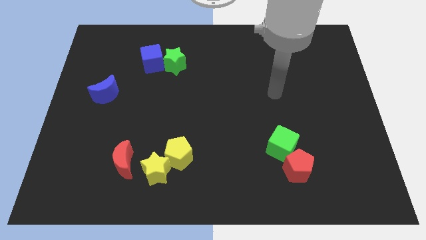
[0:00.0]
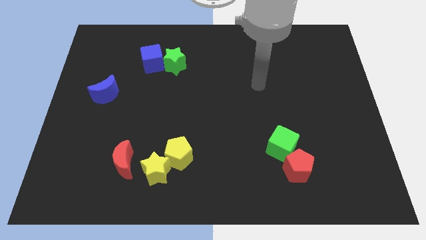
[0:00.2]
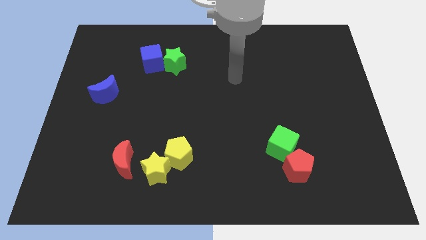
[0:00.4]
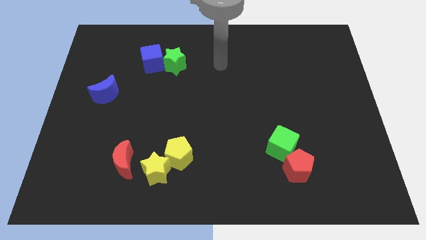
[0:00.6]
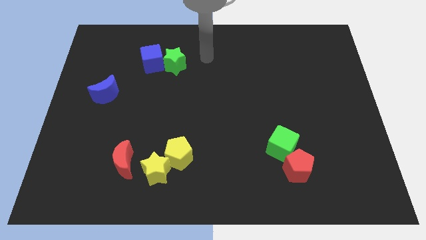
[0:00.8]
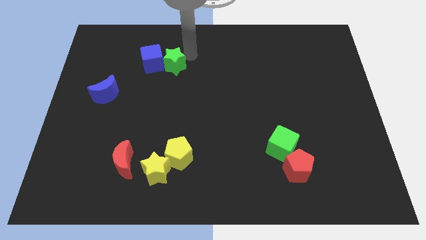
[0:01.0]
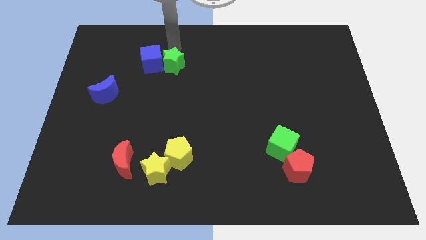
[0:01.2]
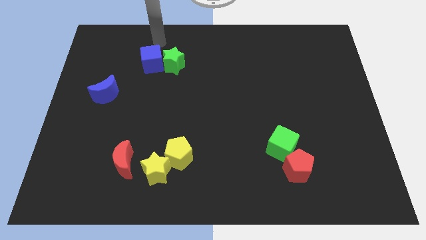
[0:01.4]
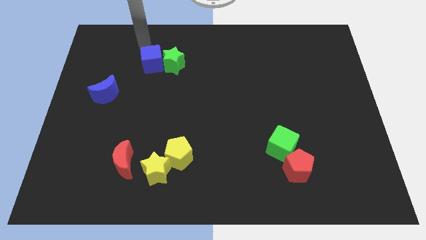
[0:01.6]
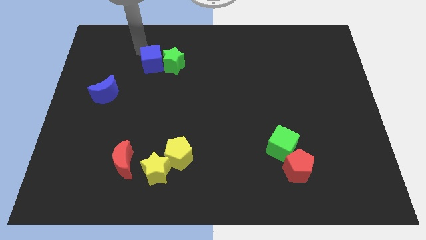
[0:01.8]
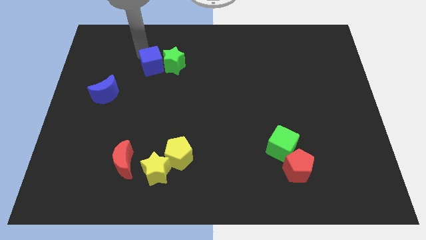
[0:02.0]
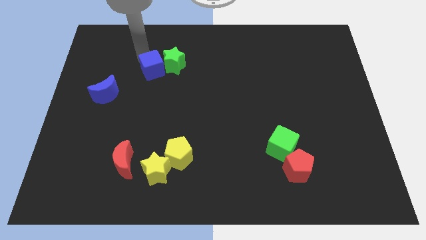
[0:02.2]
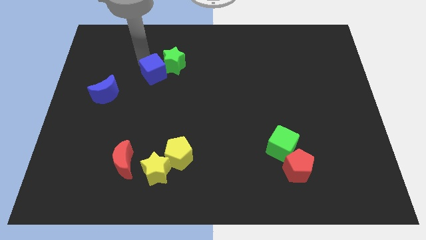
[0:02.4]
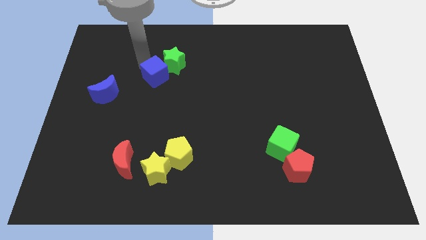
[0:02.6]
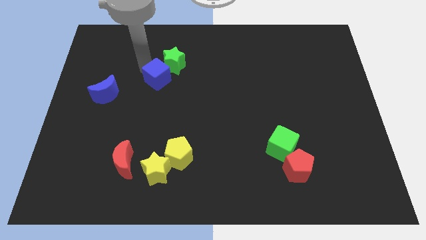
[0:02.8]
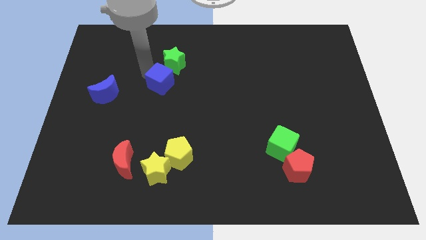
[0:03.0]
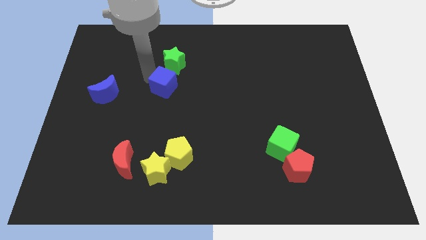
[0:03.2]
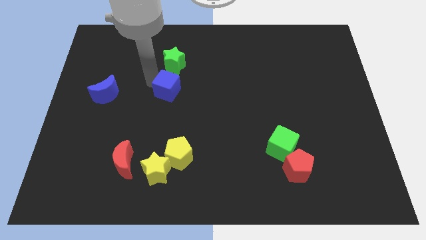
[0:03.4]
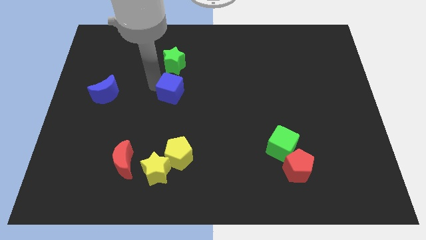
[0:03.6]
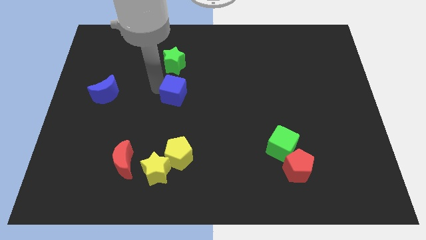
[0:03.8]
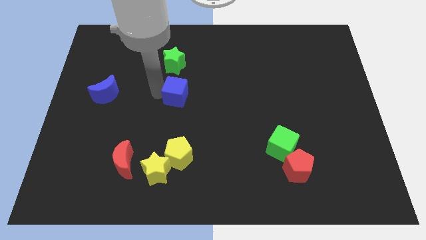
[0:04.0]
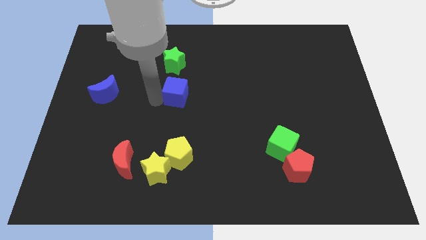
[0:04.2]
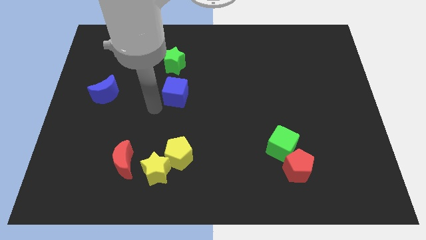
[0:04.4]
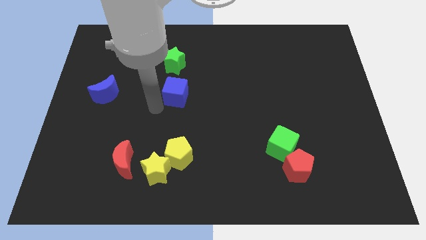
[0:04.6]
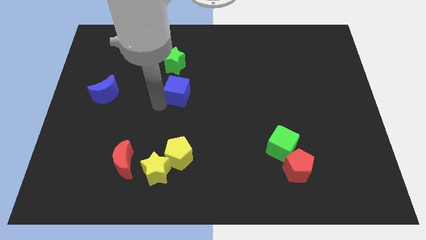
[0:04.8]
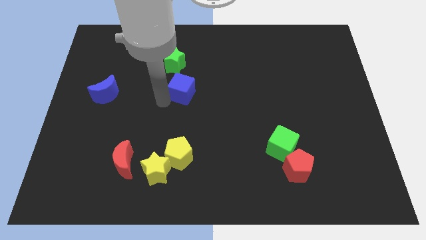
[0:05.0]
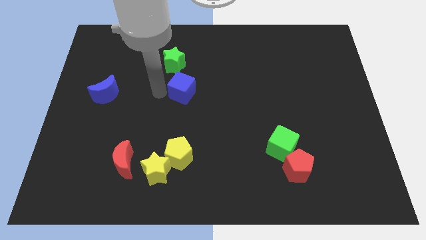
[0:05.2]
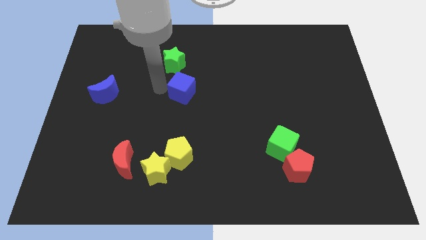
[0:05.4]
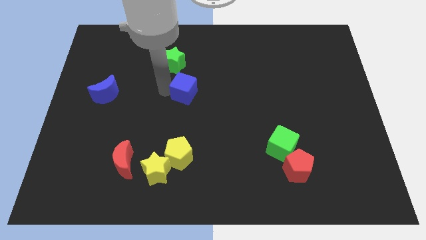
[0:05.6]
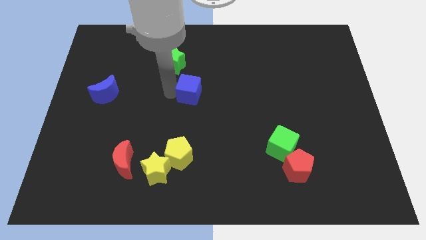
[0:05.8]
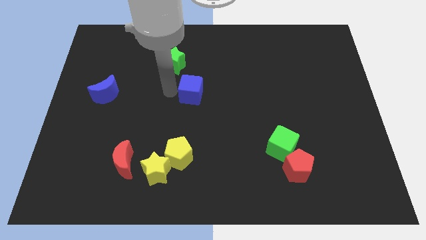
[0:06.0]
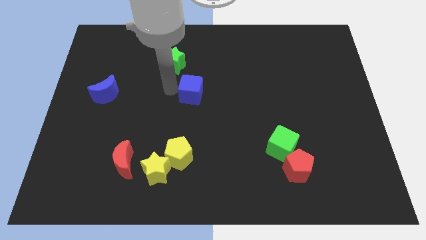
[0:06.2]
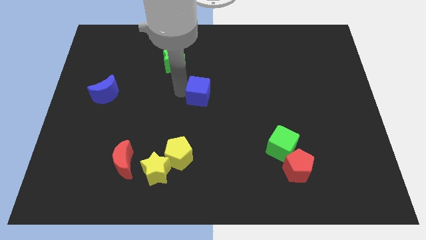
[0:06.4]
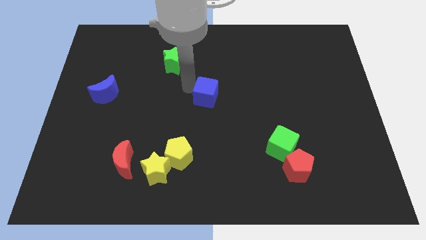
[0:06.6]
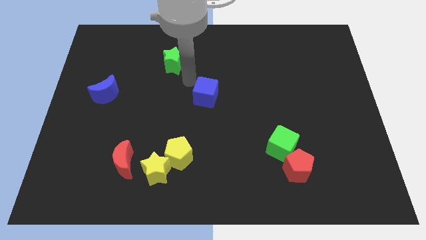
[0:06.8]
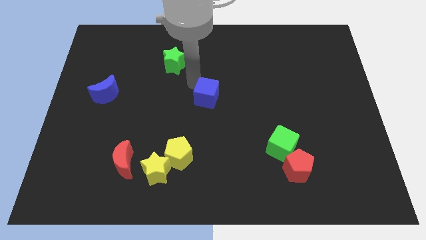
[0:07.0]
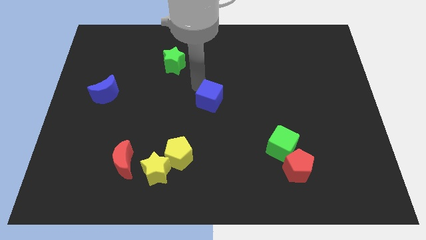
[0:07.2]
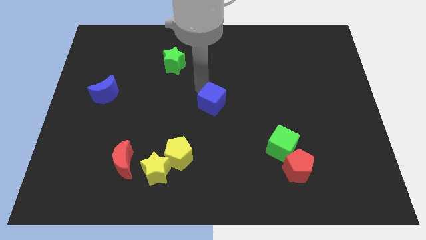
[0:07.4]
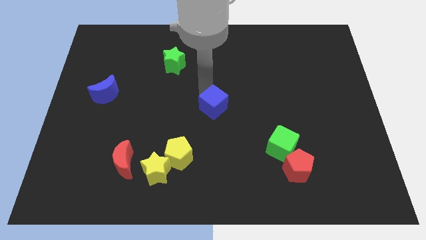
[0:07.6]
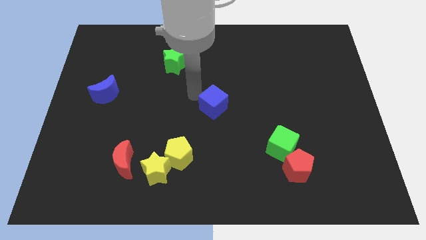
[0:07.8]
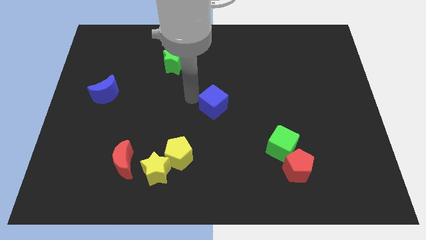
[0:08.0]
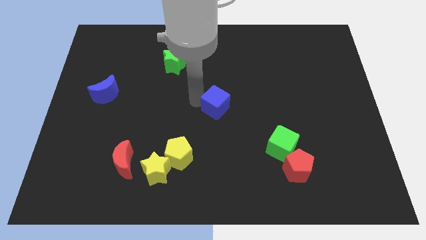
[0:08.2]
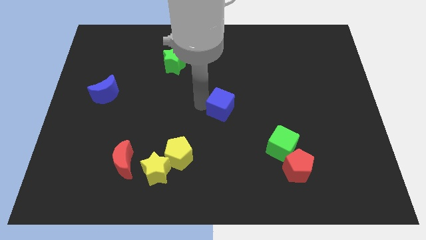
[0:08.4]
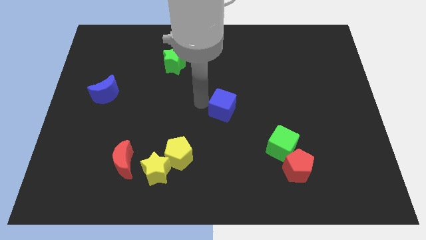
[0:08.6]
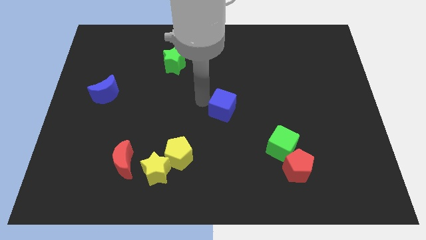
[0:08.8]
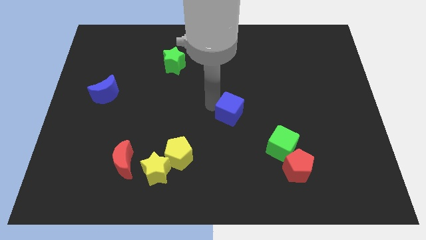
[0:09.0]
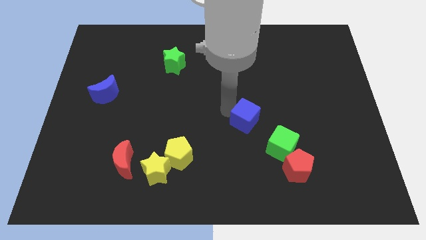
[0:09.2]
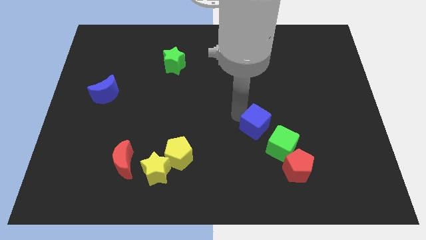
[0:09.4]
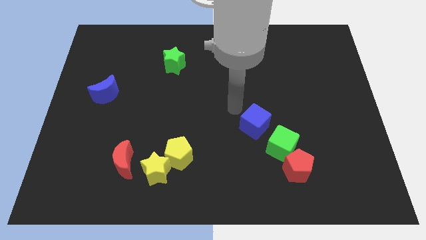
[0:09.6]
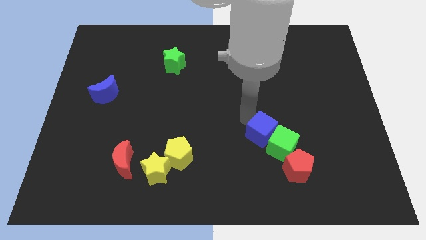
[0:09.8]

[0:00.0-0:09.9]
put the blue cube next to the green cube

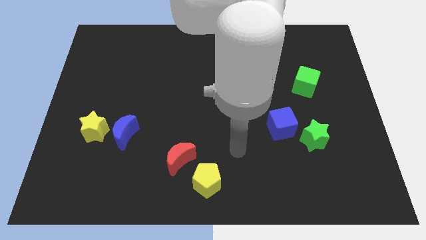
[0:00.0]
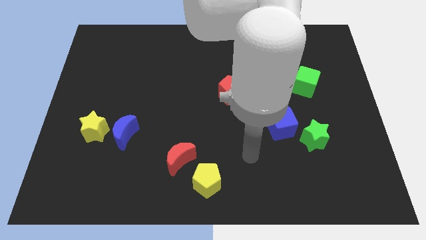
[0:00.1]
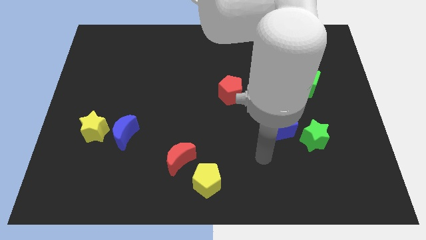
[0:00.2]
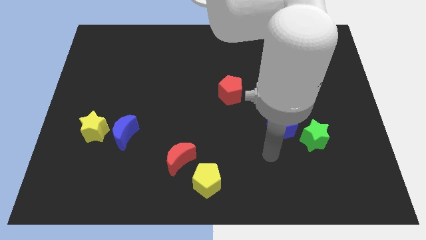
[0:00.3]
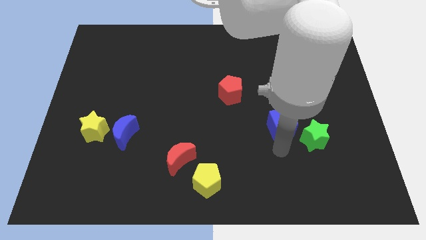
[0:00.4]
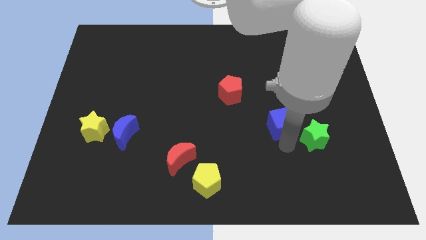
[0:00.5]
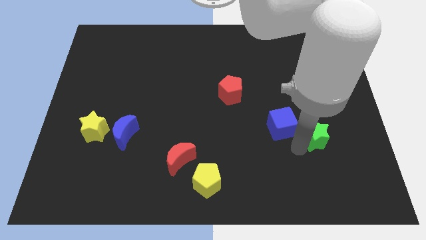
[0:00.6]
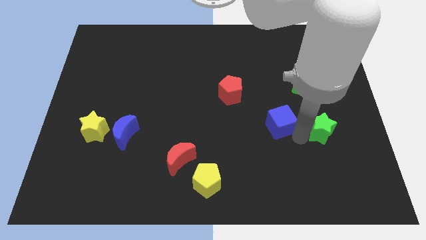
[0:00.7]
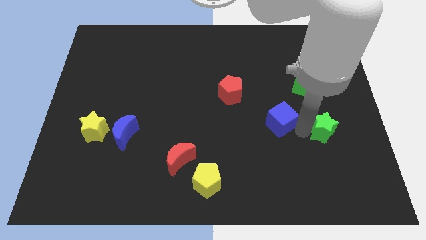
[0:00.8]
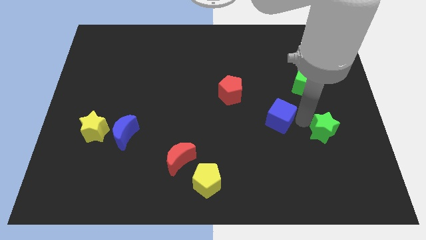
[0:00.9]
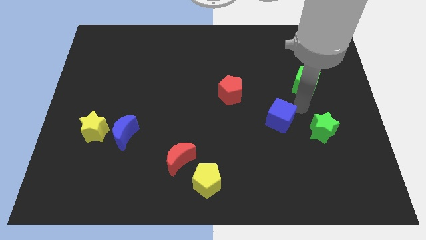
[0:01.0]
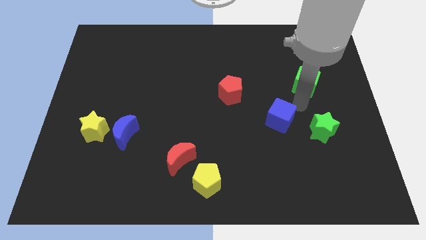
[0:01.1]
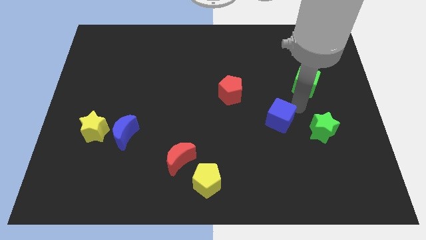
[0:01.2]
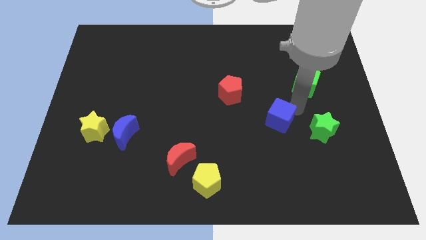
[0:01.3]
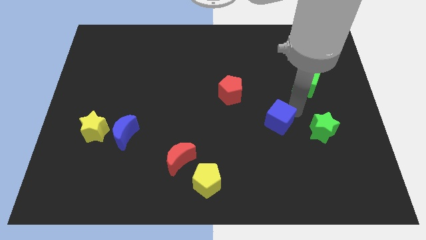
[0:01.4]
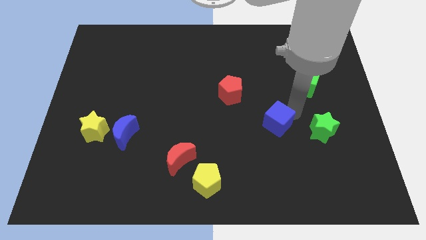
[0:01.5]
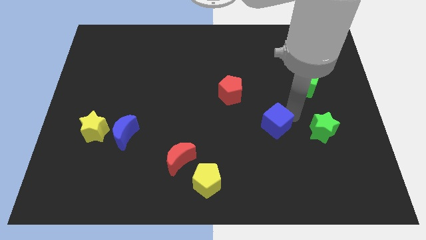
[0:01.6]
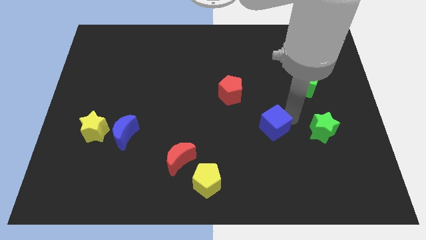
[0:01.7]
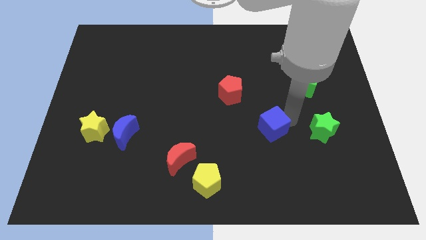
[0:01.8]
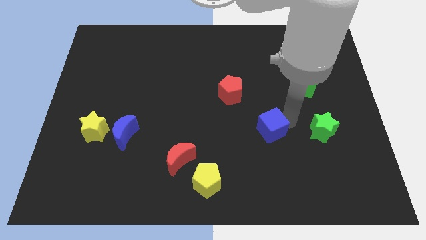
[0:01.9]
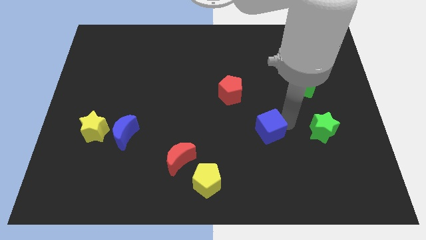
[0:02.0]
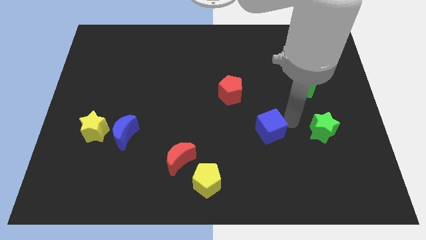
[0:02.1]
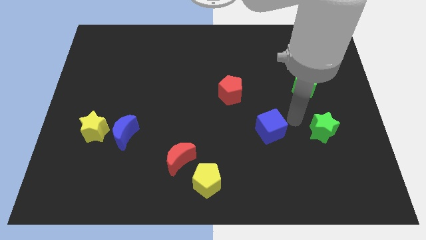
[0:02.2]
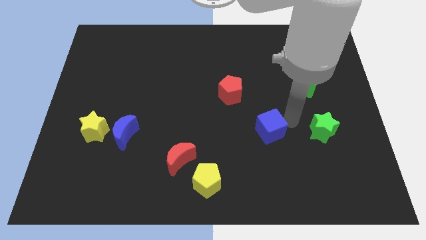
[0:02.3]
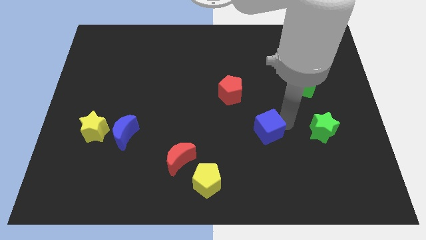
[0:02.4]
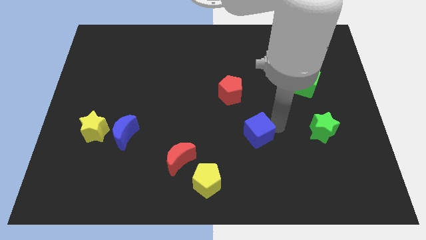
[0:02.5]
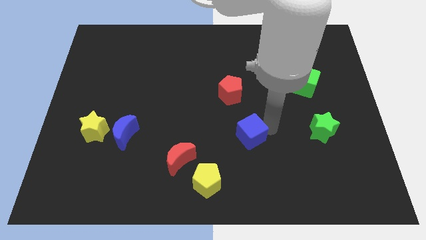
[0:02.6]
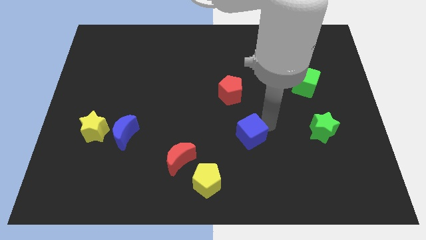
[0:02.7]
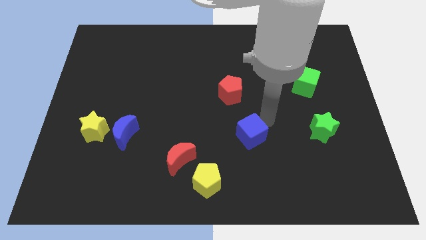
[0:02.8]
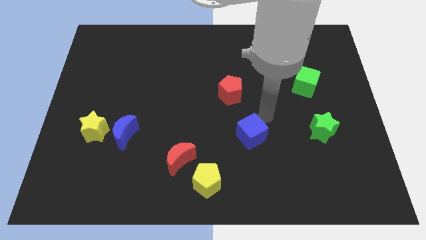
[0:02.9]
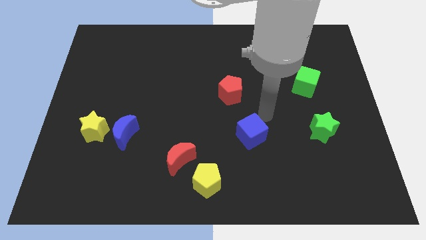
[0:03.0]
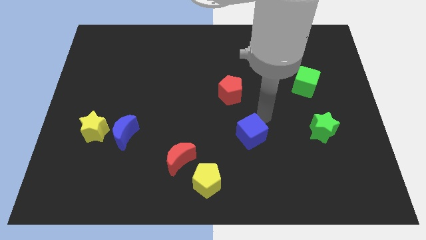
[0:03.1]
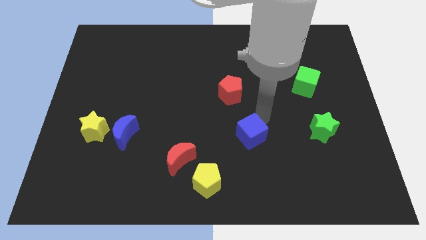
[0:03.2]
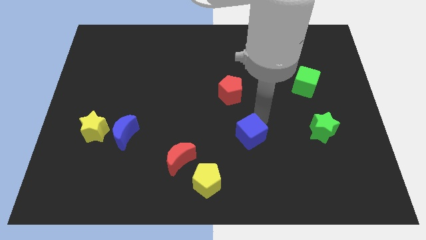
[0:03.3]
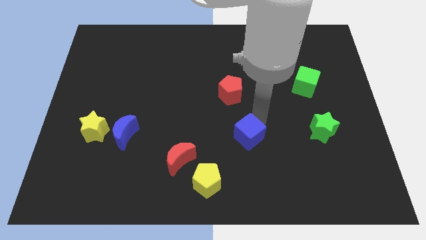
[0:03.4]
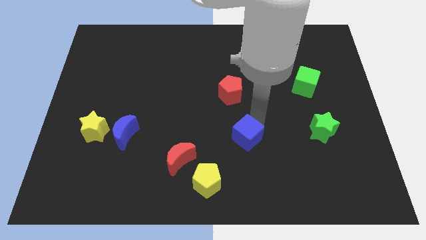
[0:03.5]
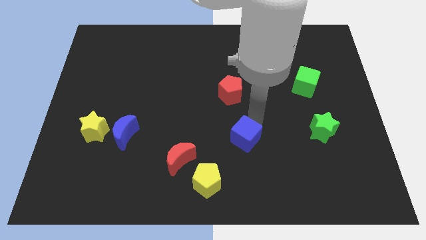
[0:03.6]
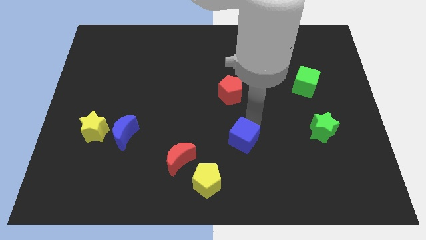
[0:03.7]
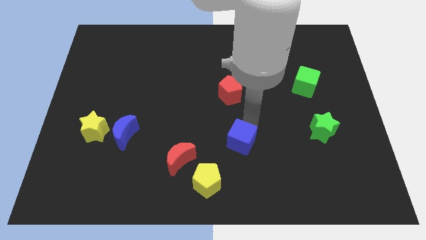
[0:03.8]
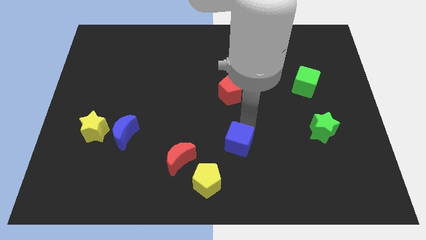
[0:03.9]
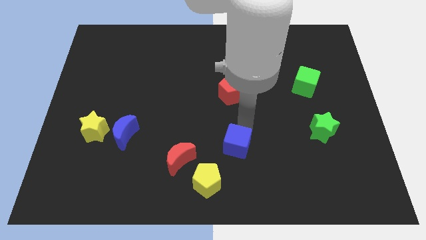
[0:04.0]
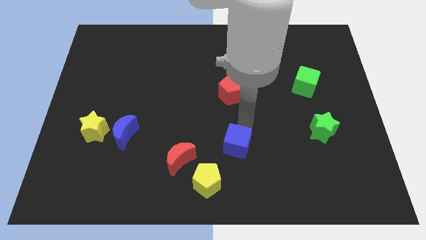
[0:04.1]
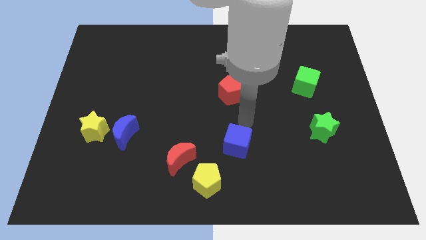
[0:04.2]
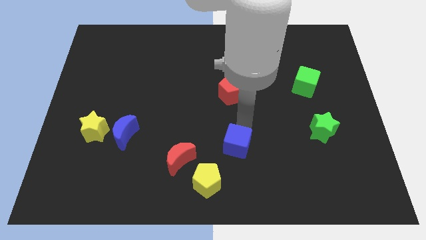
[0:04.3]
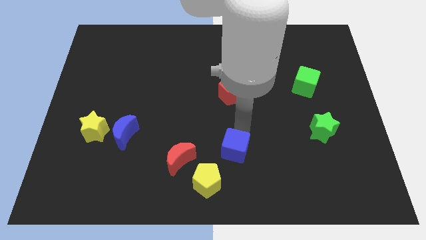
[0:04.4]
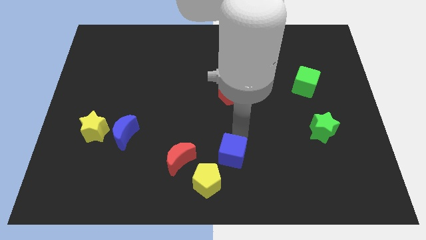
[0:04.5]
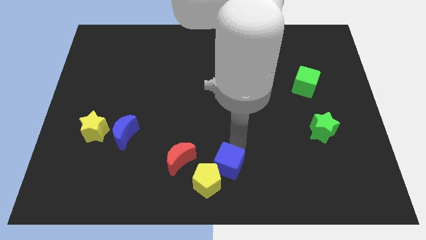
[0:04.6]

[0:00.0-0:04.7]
push the blue cube next to the yellow pentagon
